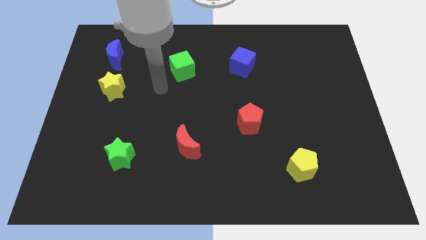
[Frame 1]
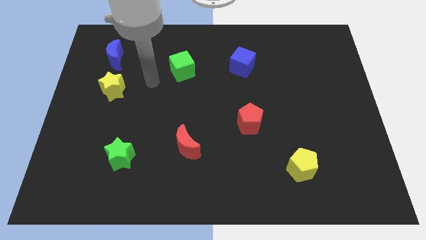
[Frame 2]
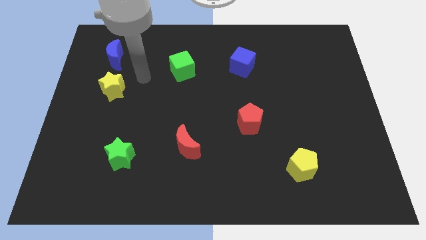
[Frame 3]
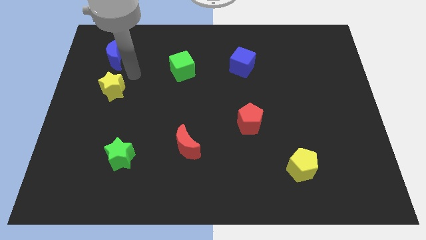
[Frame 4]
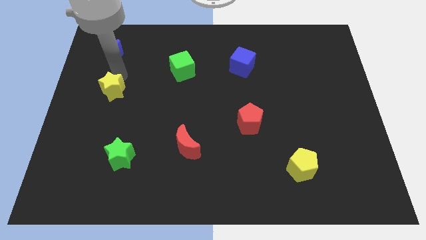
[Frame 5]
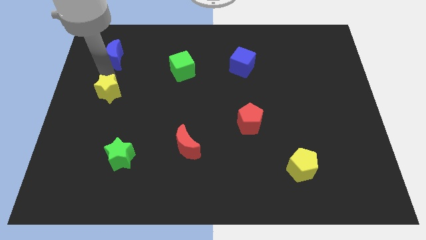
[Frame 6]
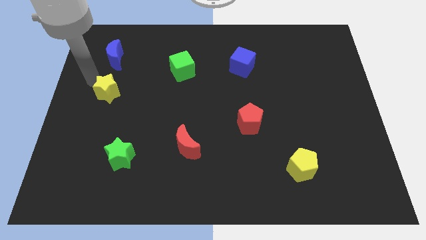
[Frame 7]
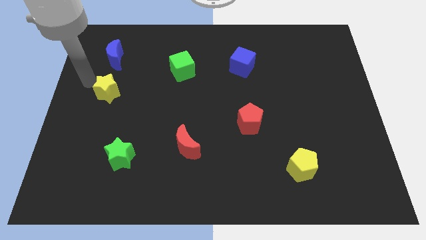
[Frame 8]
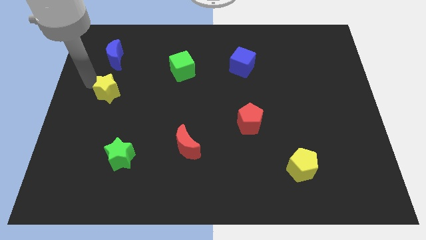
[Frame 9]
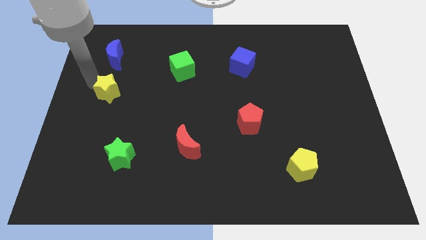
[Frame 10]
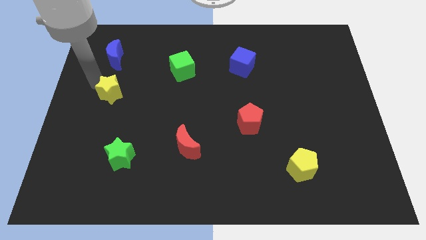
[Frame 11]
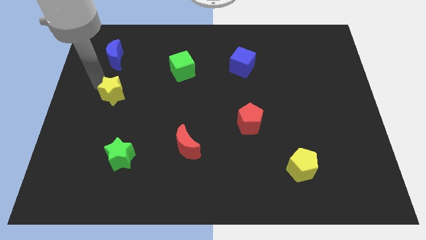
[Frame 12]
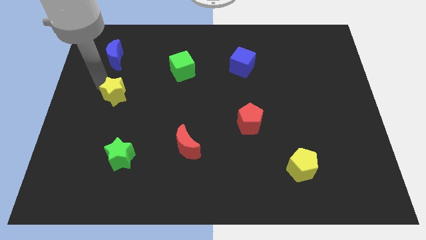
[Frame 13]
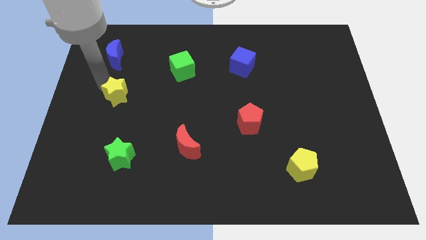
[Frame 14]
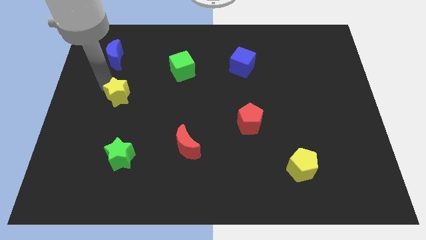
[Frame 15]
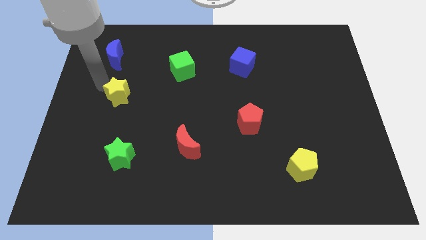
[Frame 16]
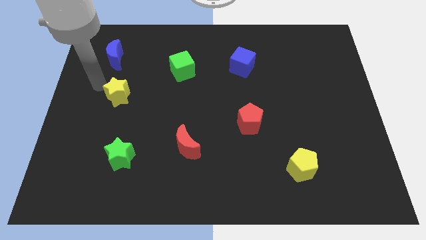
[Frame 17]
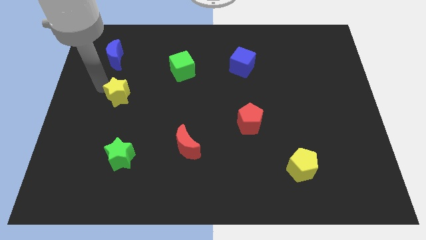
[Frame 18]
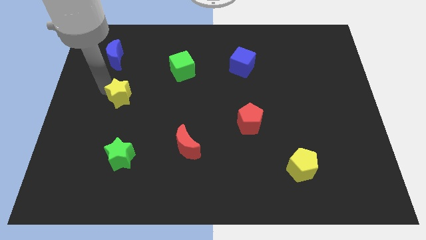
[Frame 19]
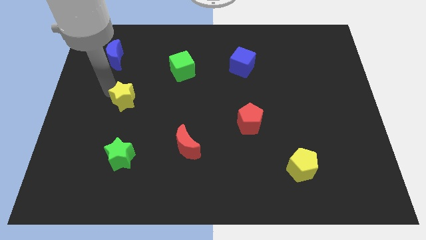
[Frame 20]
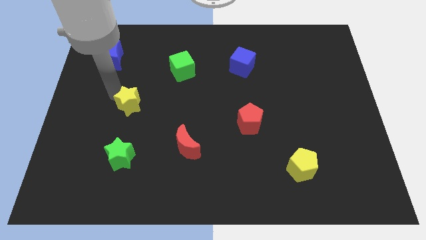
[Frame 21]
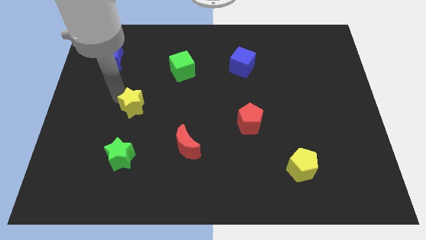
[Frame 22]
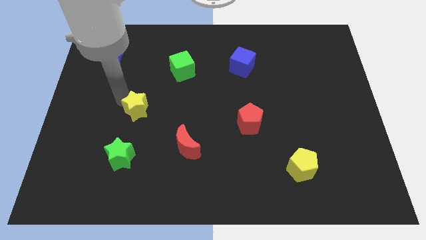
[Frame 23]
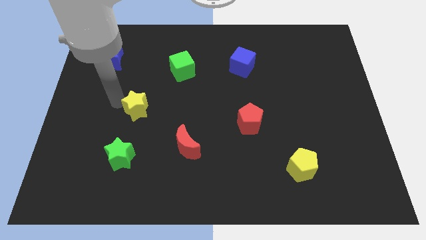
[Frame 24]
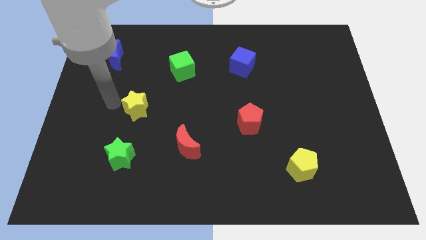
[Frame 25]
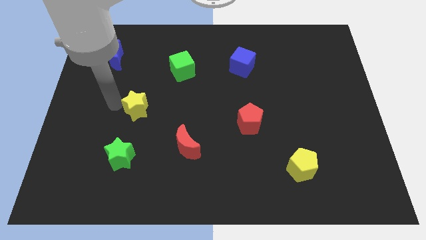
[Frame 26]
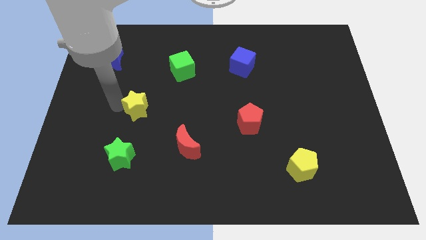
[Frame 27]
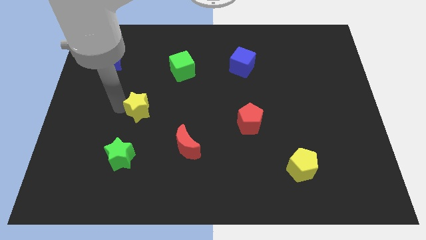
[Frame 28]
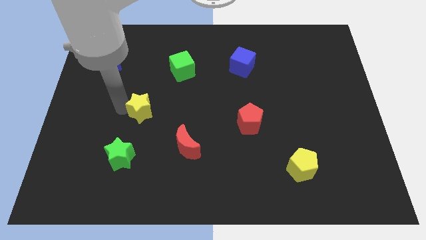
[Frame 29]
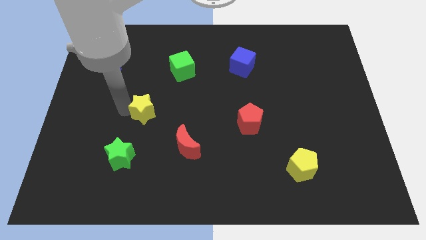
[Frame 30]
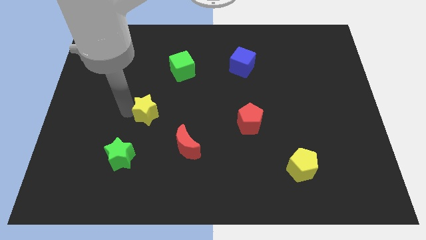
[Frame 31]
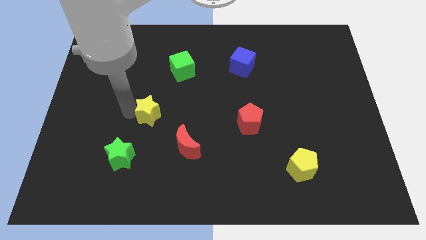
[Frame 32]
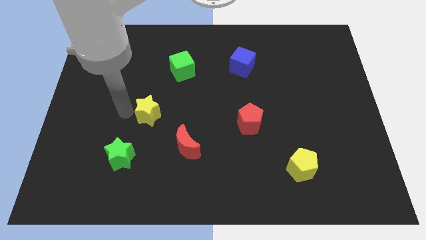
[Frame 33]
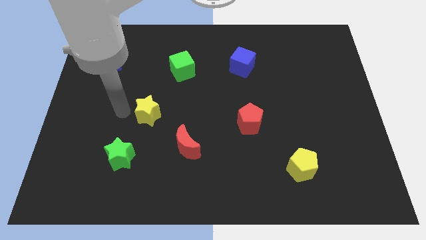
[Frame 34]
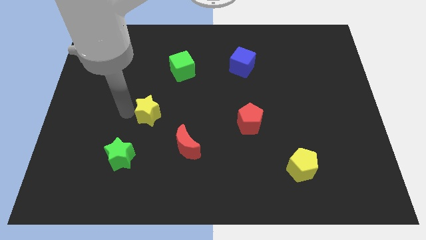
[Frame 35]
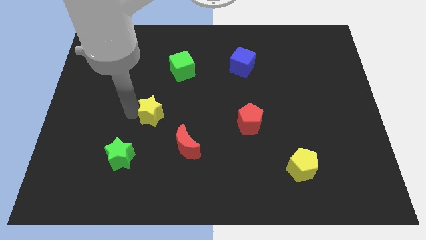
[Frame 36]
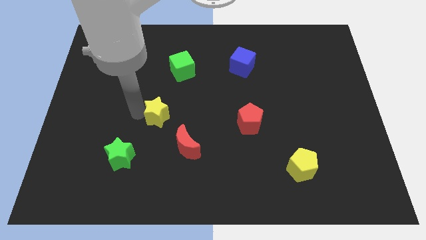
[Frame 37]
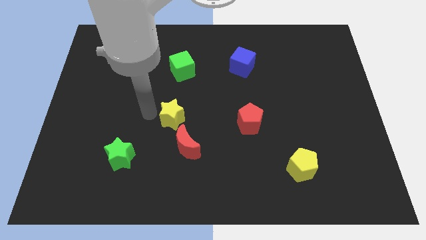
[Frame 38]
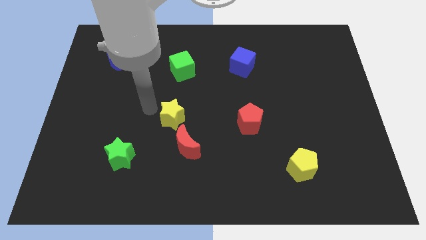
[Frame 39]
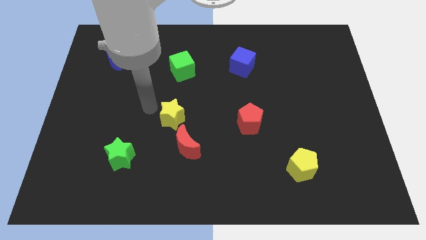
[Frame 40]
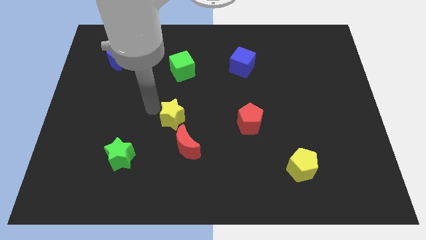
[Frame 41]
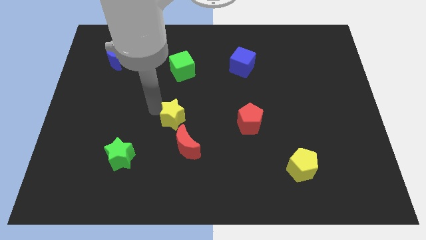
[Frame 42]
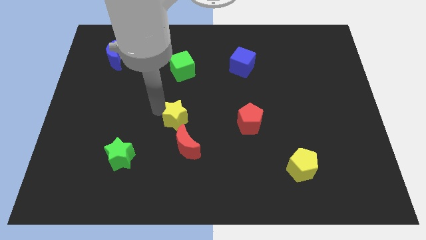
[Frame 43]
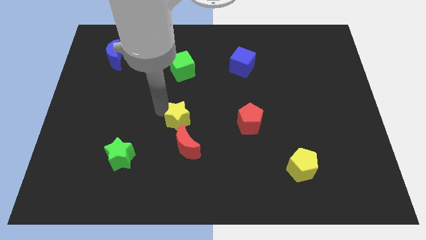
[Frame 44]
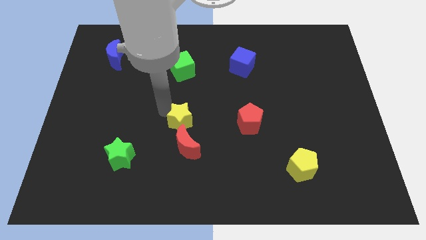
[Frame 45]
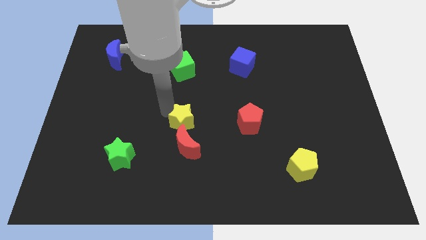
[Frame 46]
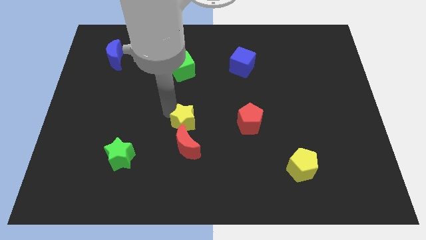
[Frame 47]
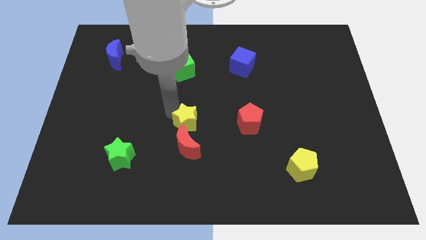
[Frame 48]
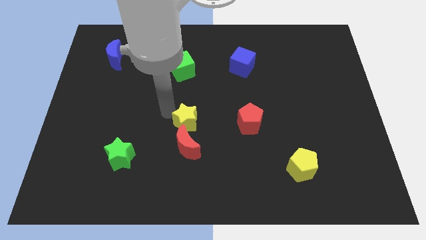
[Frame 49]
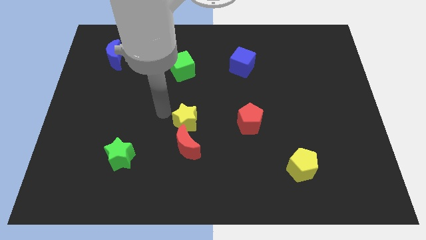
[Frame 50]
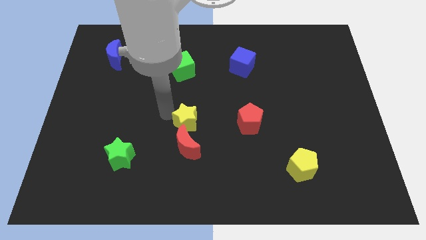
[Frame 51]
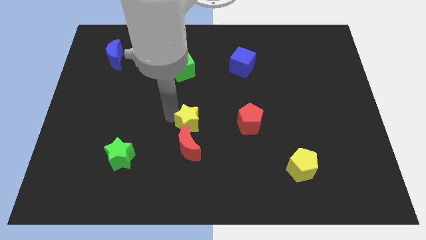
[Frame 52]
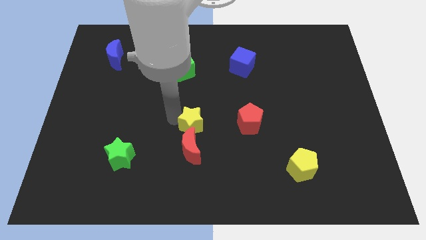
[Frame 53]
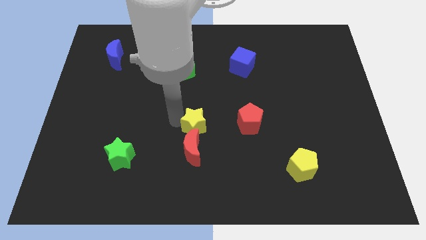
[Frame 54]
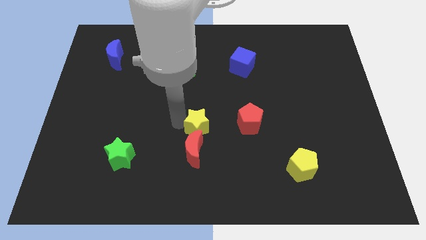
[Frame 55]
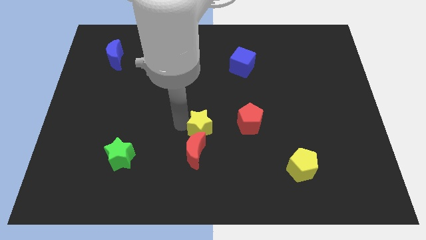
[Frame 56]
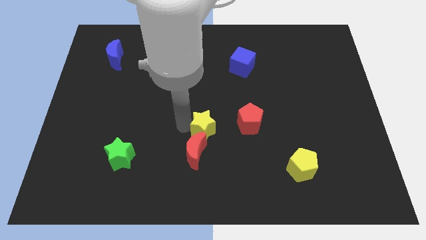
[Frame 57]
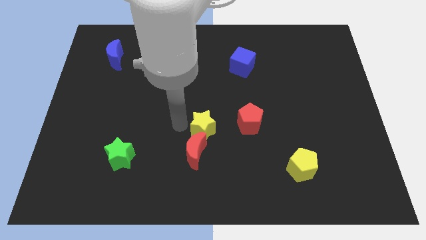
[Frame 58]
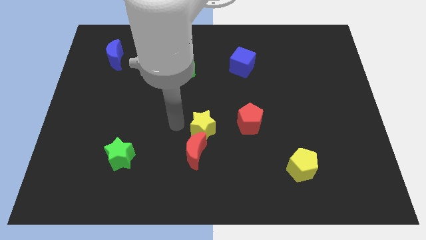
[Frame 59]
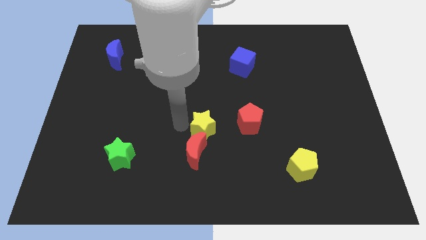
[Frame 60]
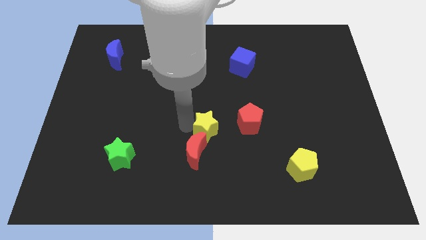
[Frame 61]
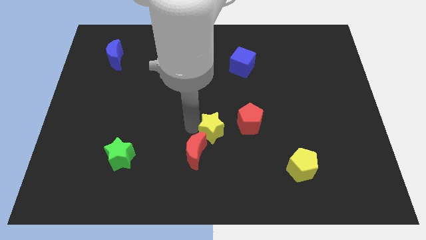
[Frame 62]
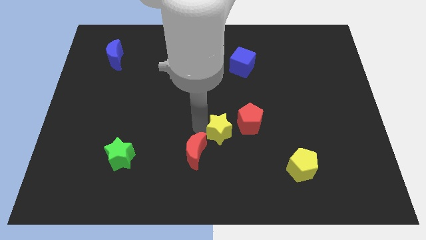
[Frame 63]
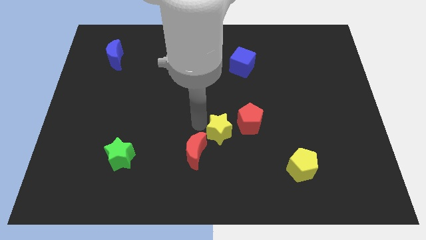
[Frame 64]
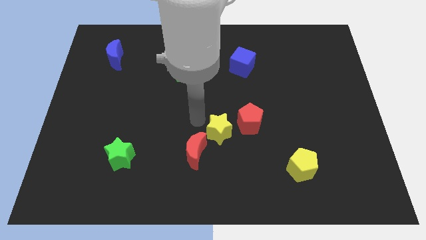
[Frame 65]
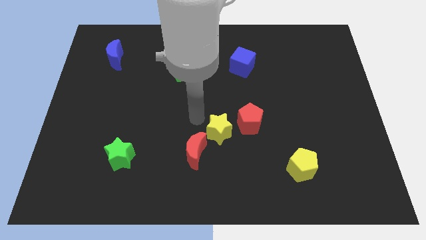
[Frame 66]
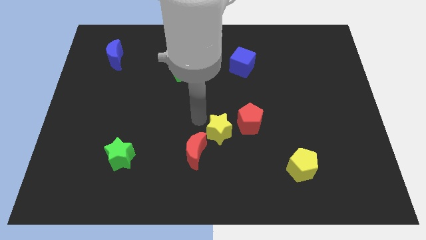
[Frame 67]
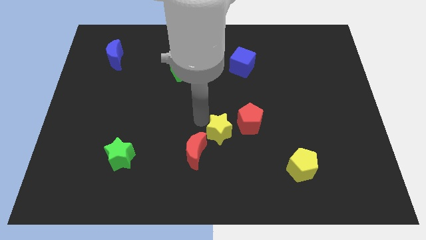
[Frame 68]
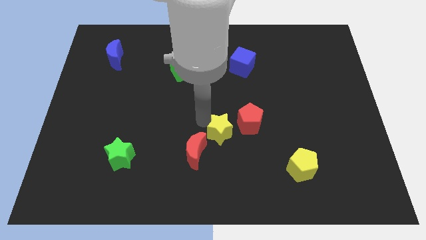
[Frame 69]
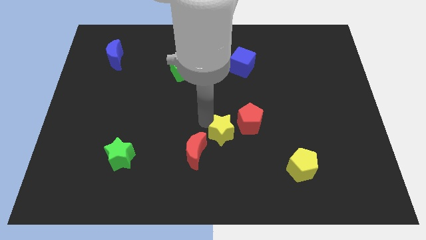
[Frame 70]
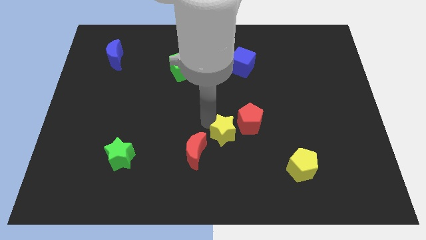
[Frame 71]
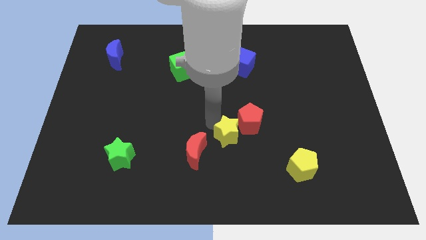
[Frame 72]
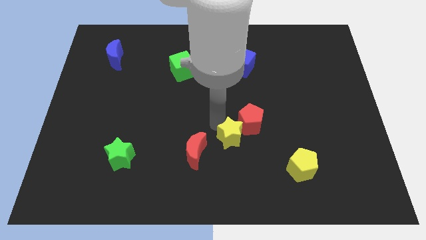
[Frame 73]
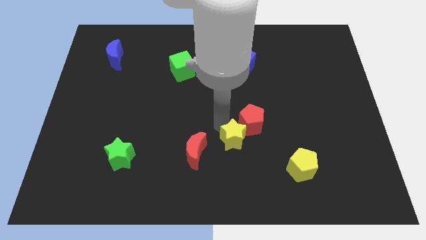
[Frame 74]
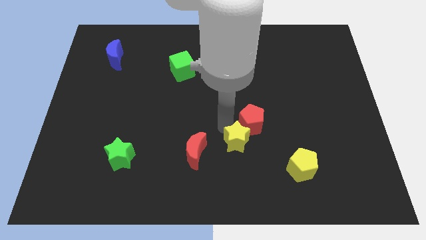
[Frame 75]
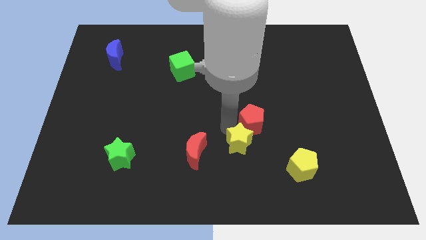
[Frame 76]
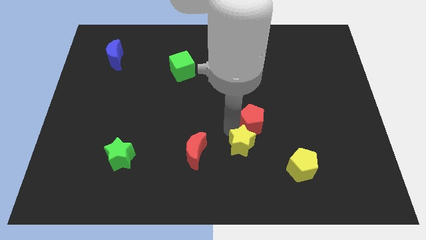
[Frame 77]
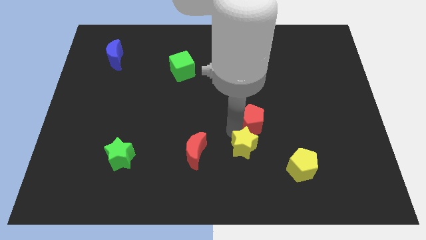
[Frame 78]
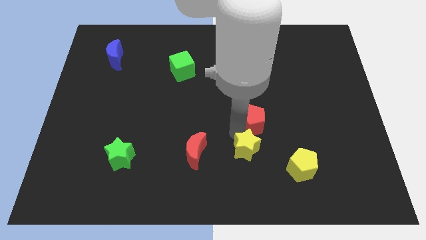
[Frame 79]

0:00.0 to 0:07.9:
slide the yellow star just left of the yellow pentagon
